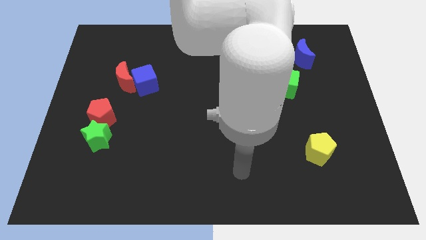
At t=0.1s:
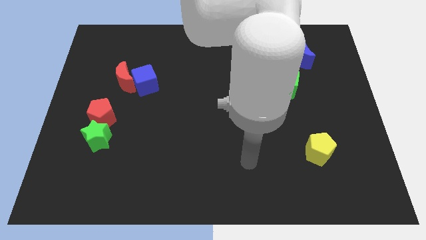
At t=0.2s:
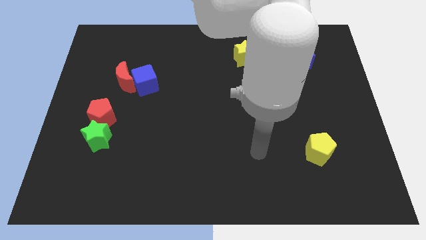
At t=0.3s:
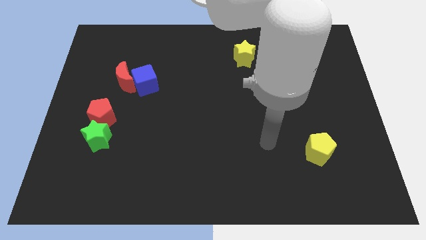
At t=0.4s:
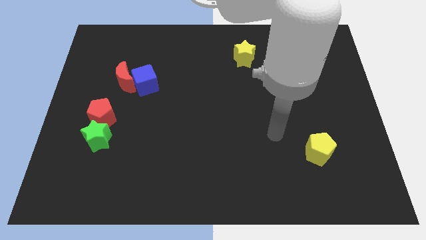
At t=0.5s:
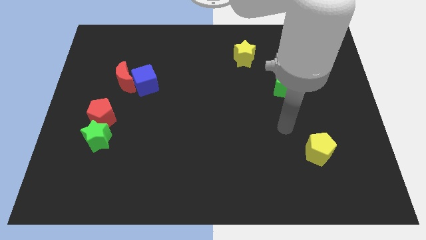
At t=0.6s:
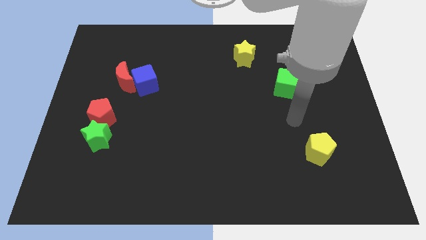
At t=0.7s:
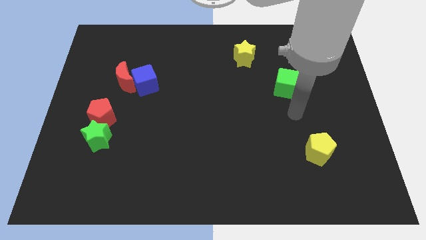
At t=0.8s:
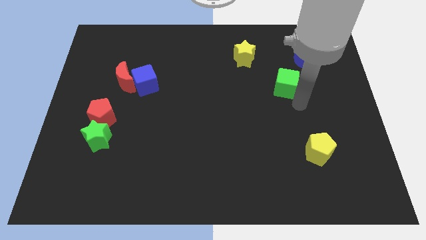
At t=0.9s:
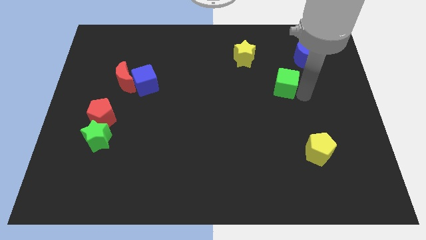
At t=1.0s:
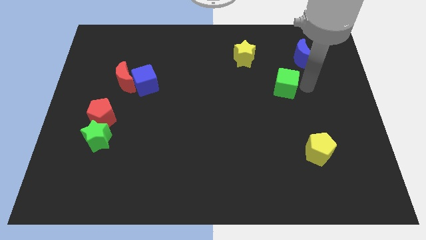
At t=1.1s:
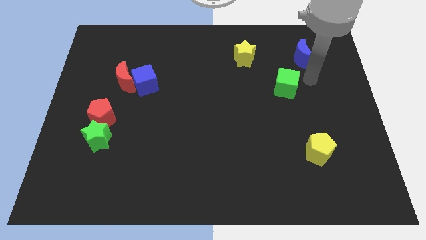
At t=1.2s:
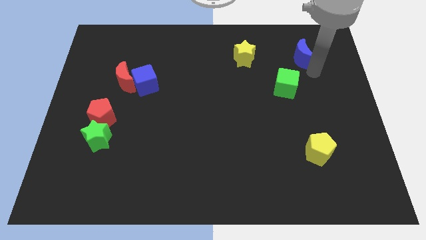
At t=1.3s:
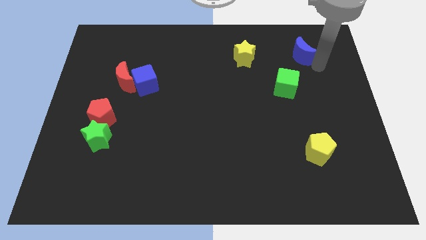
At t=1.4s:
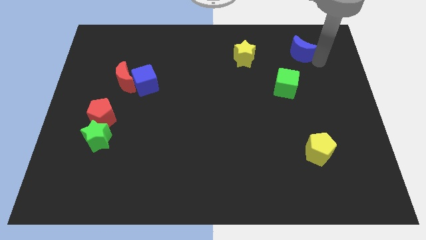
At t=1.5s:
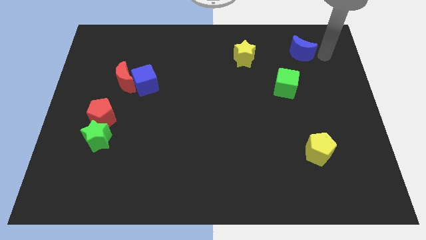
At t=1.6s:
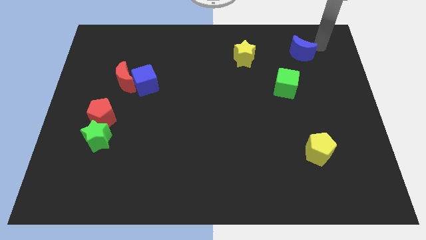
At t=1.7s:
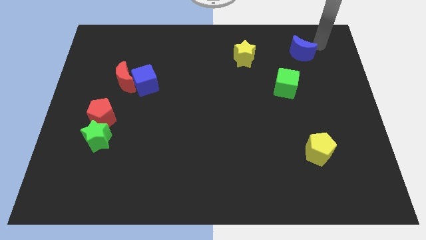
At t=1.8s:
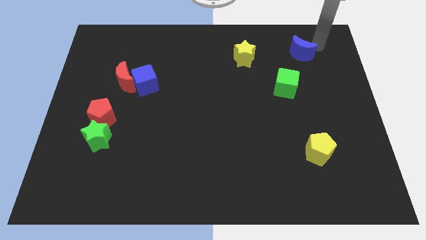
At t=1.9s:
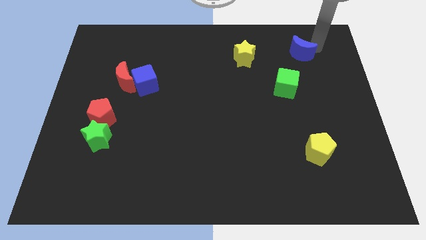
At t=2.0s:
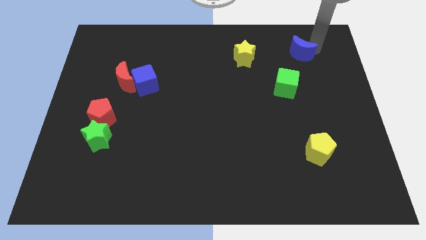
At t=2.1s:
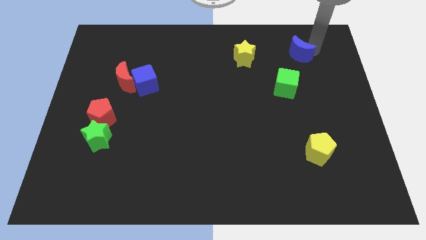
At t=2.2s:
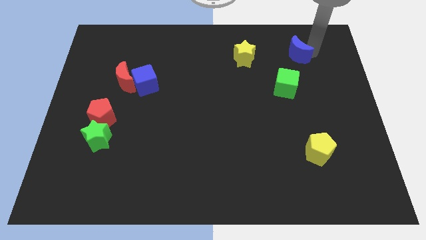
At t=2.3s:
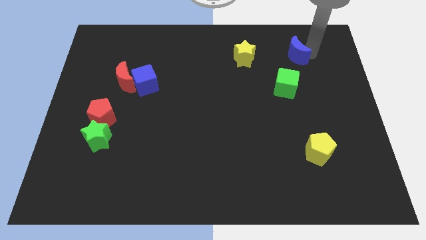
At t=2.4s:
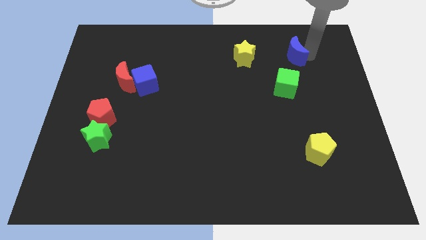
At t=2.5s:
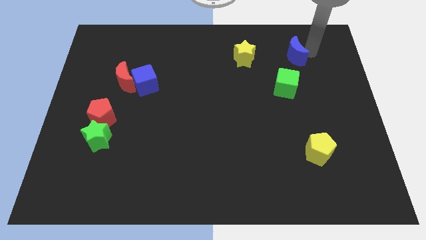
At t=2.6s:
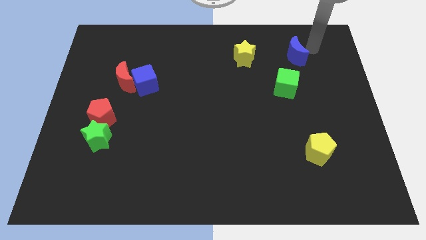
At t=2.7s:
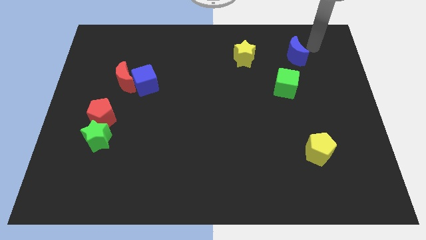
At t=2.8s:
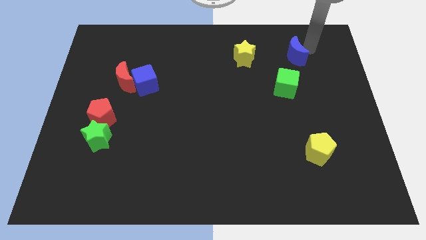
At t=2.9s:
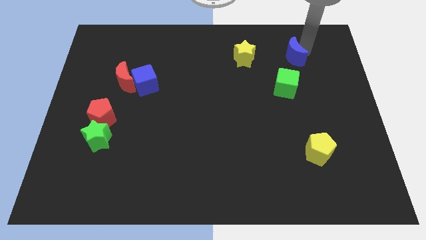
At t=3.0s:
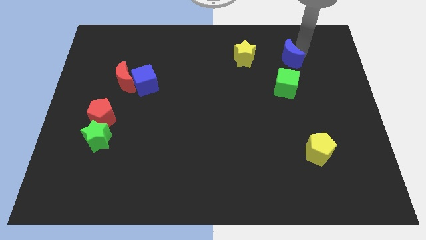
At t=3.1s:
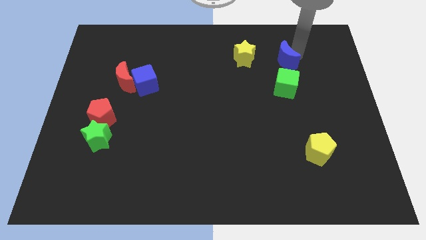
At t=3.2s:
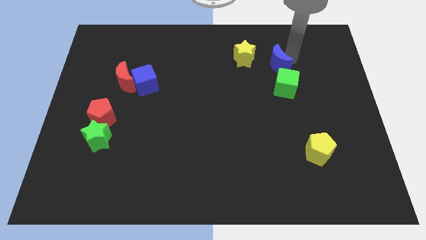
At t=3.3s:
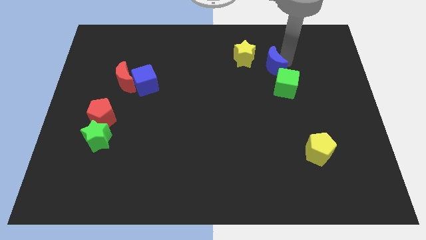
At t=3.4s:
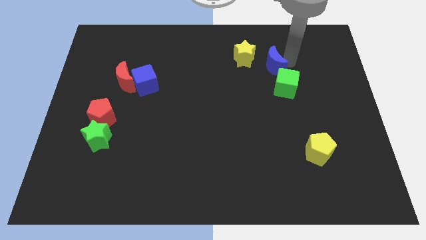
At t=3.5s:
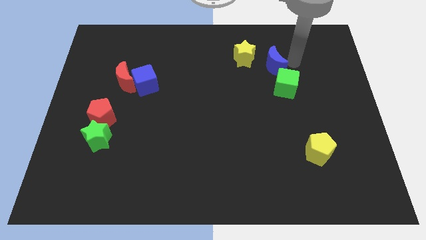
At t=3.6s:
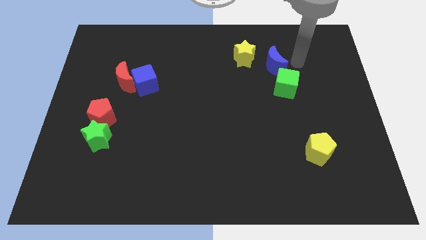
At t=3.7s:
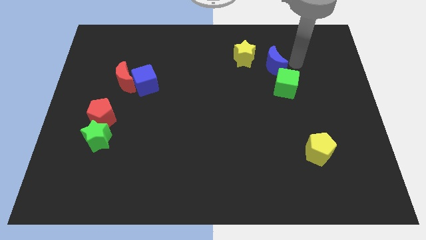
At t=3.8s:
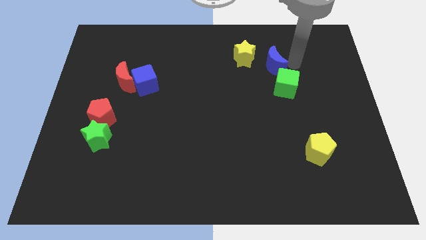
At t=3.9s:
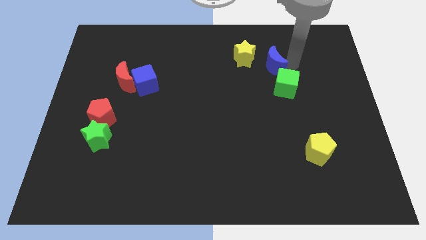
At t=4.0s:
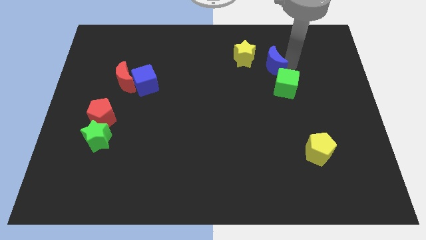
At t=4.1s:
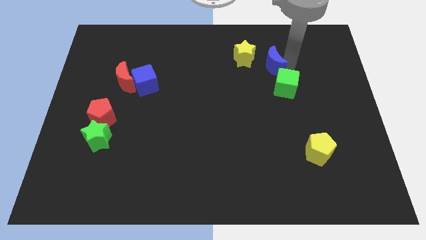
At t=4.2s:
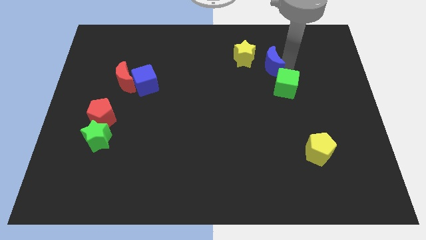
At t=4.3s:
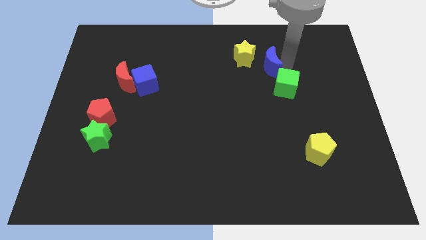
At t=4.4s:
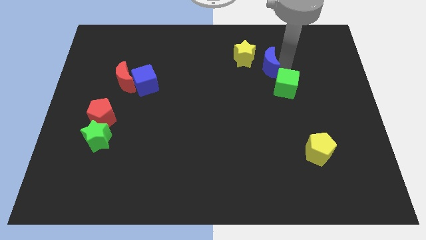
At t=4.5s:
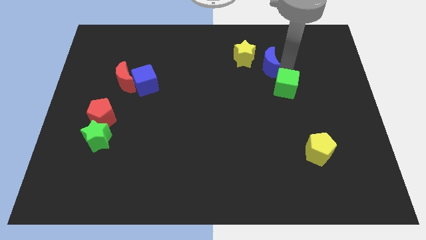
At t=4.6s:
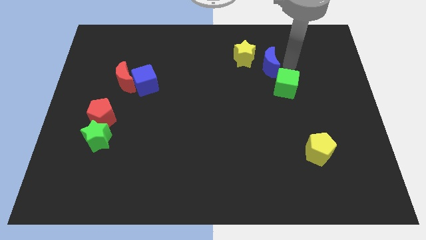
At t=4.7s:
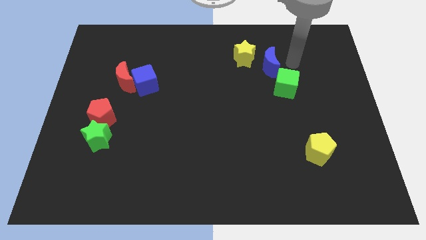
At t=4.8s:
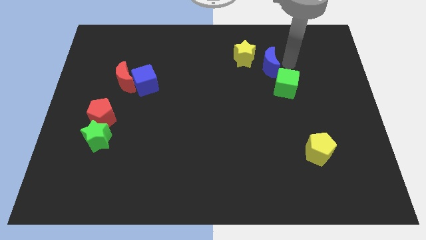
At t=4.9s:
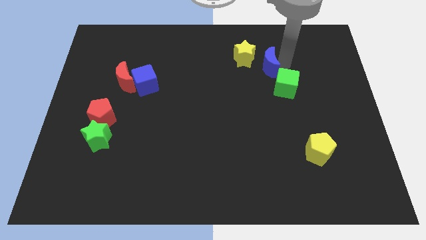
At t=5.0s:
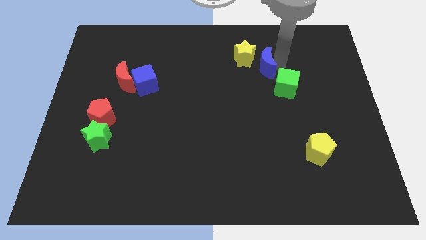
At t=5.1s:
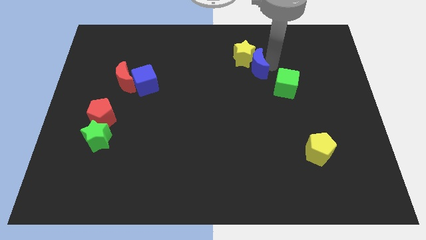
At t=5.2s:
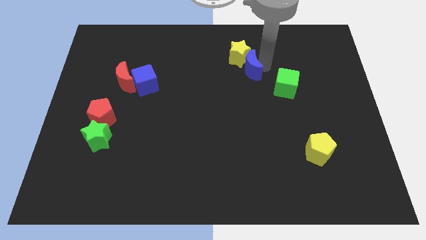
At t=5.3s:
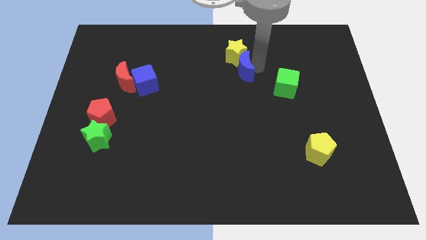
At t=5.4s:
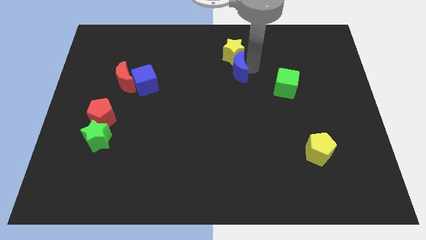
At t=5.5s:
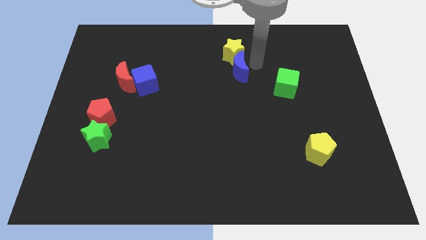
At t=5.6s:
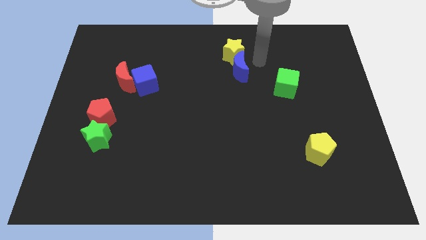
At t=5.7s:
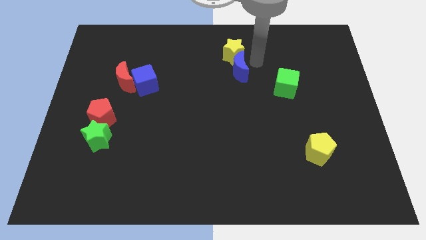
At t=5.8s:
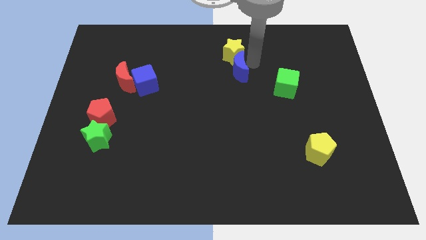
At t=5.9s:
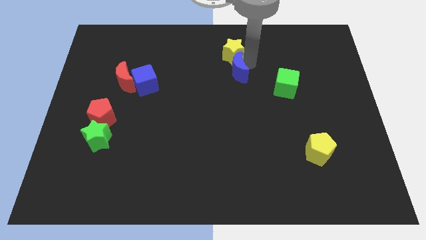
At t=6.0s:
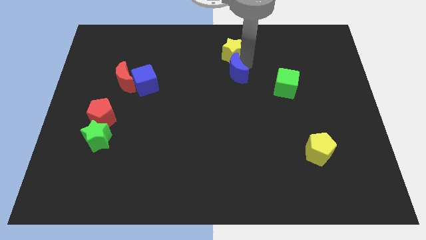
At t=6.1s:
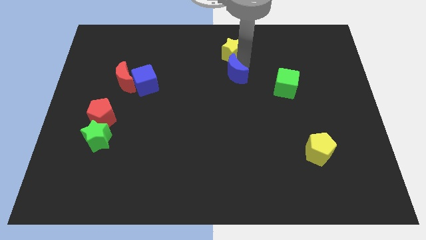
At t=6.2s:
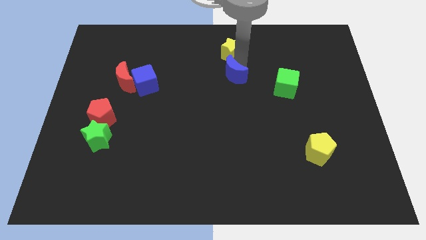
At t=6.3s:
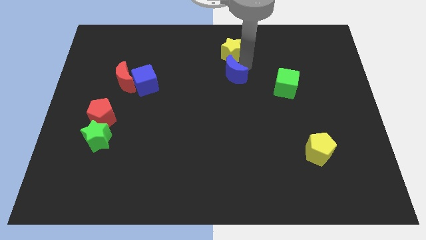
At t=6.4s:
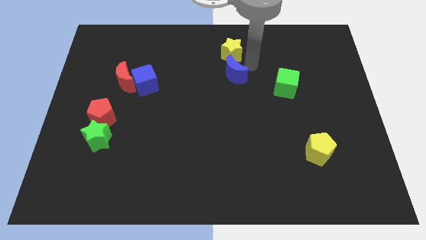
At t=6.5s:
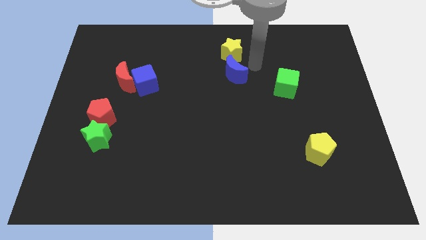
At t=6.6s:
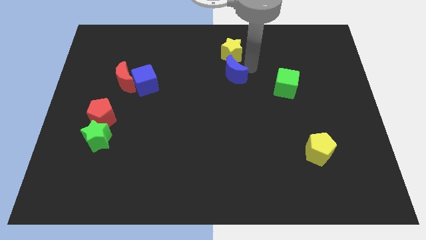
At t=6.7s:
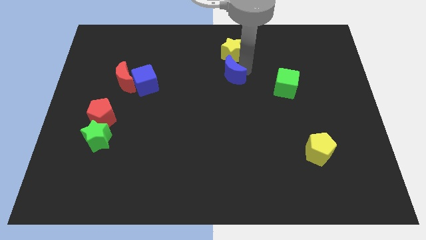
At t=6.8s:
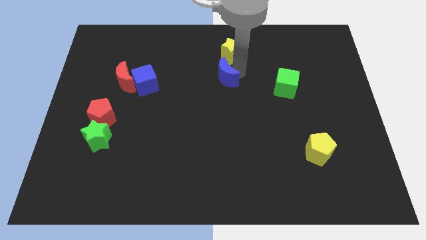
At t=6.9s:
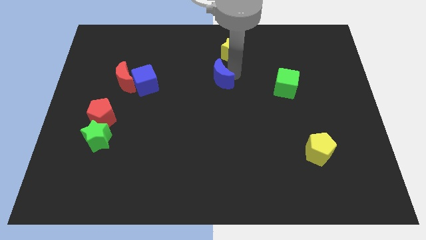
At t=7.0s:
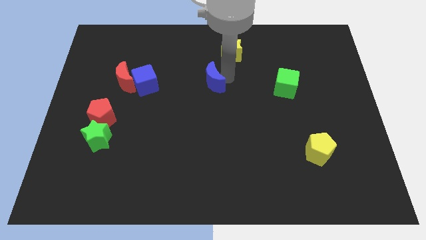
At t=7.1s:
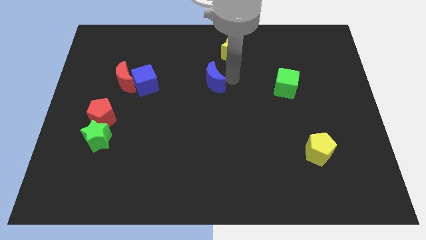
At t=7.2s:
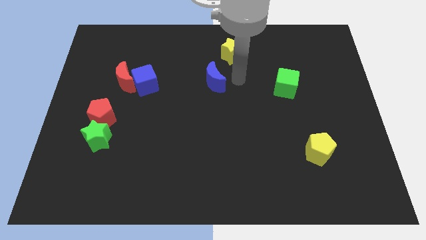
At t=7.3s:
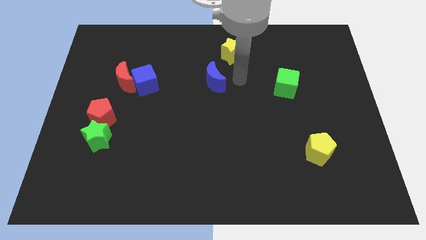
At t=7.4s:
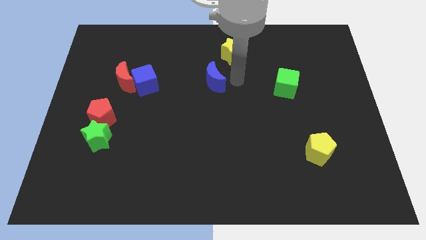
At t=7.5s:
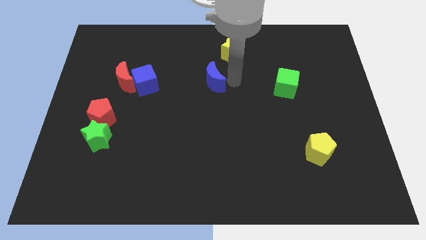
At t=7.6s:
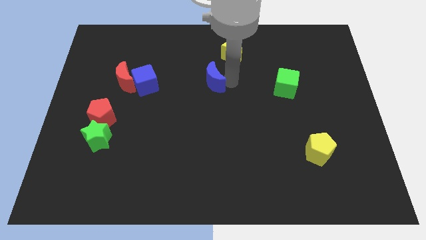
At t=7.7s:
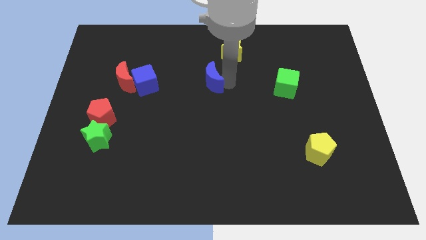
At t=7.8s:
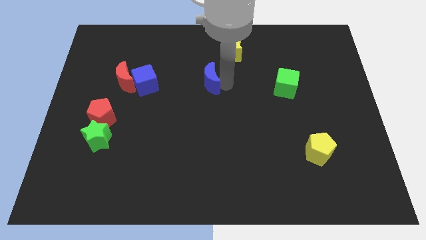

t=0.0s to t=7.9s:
put the blue moon right of the blue cube
